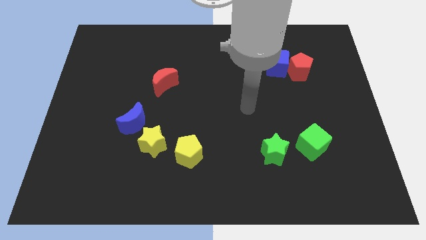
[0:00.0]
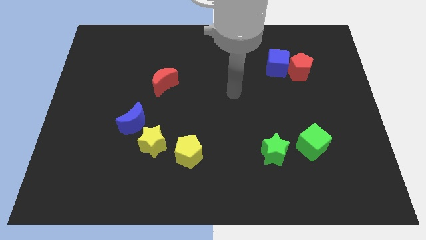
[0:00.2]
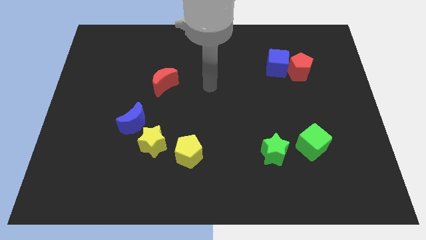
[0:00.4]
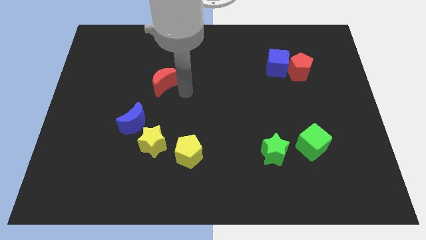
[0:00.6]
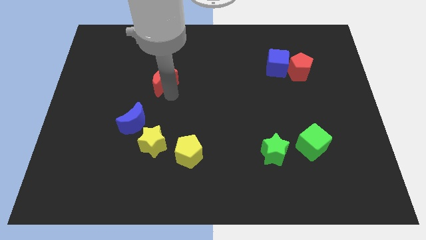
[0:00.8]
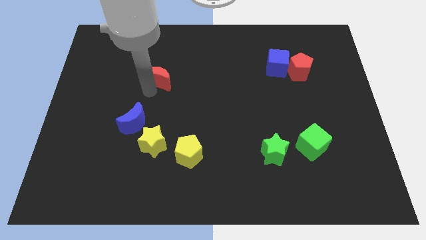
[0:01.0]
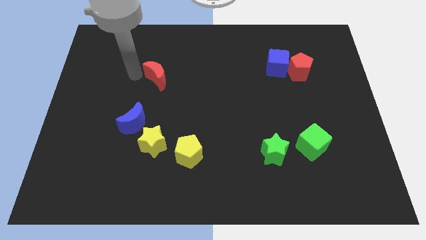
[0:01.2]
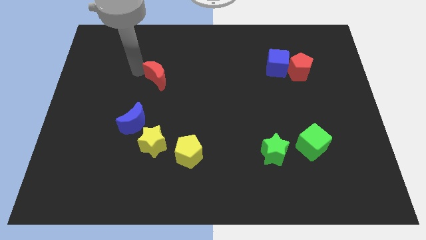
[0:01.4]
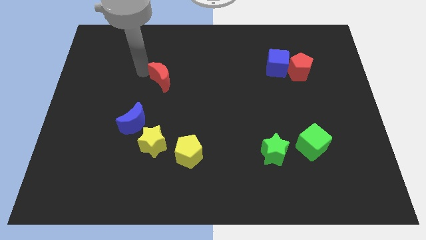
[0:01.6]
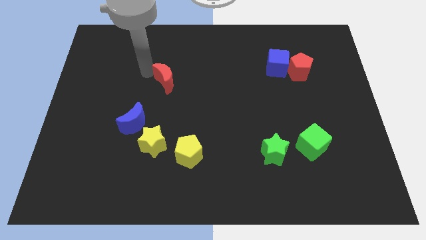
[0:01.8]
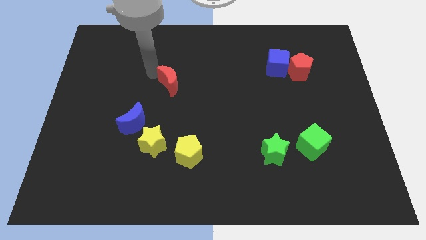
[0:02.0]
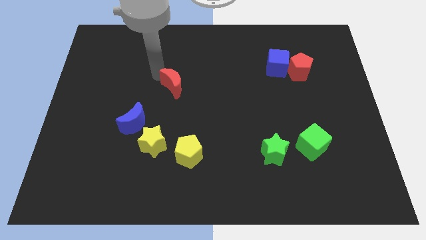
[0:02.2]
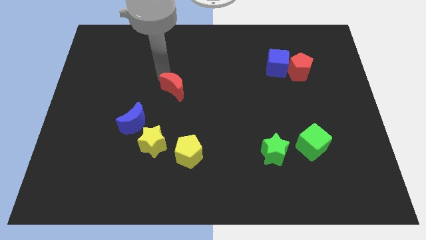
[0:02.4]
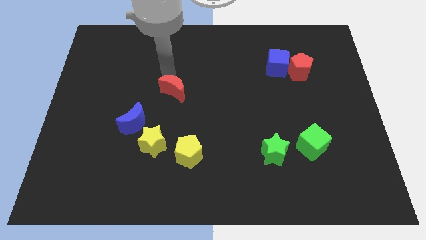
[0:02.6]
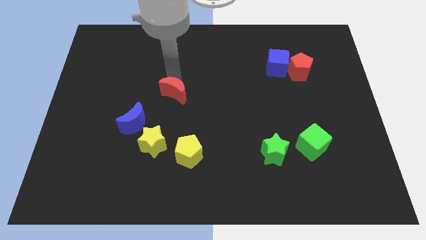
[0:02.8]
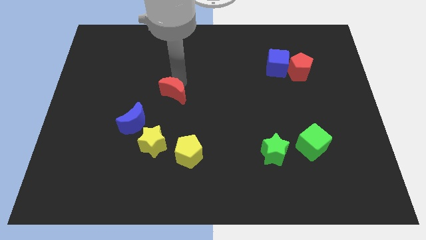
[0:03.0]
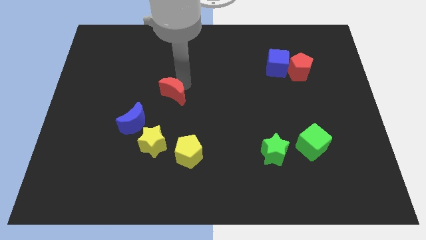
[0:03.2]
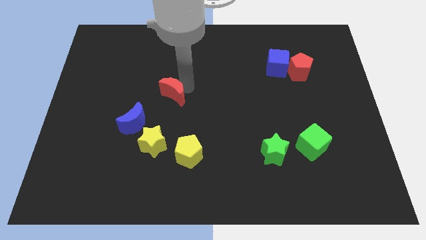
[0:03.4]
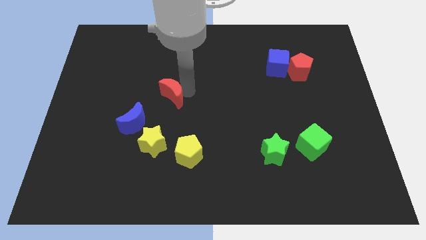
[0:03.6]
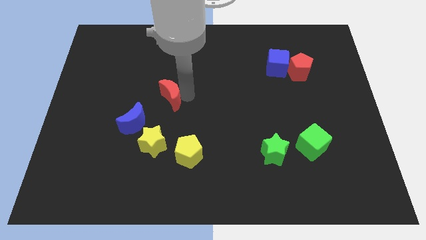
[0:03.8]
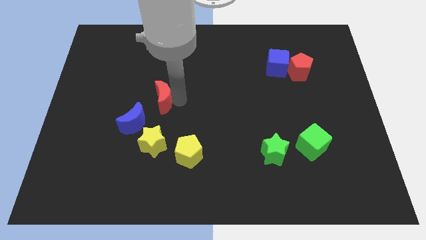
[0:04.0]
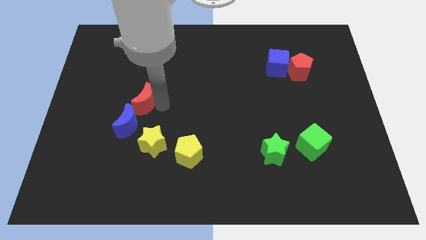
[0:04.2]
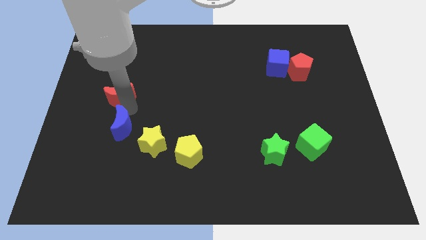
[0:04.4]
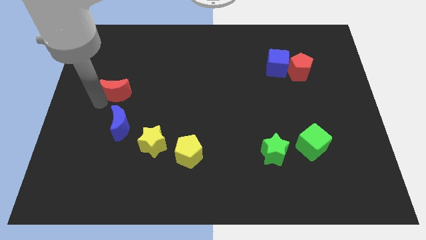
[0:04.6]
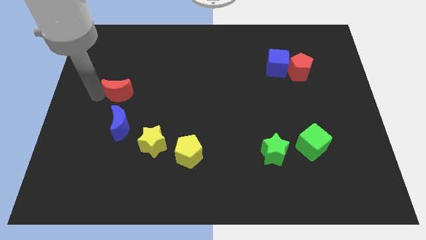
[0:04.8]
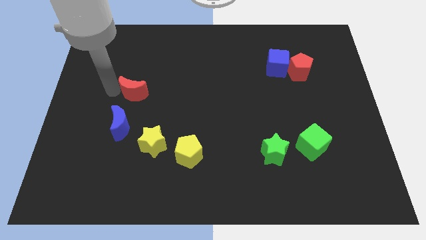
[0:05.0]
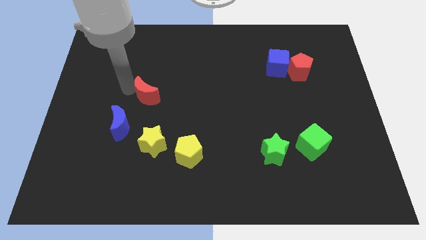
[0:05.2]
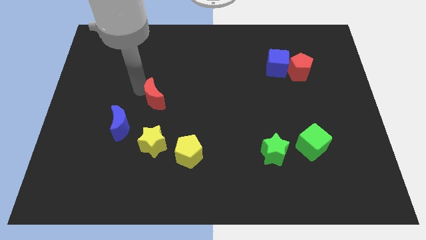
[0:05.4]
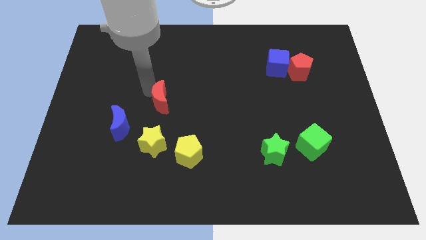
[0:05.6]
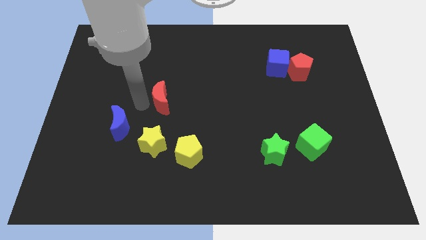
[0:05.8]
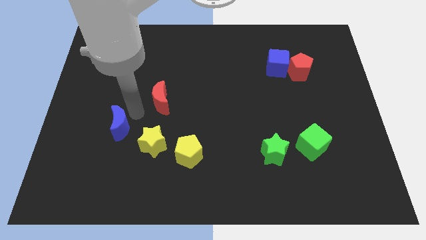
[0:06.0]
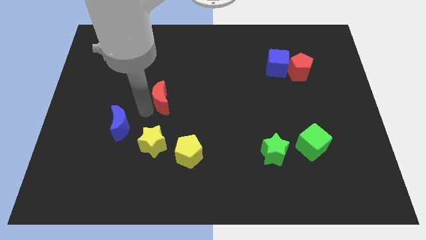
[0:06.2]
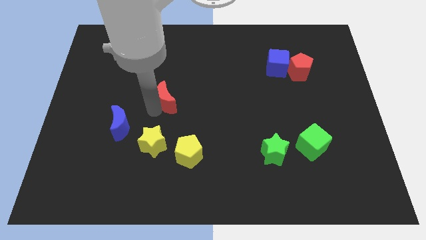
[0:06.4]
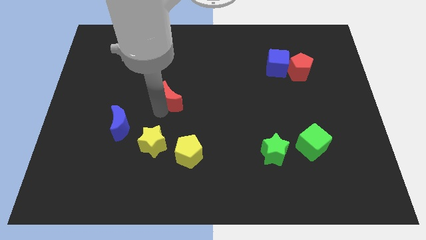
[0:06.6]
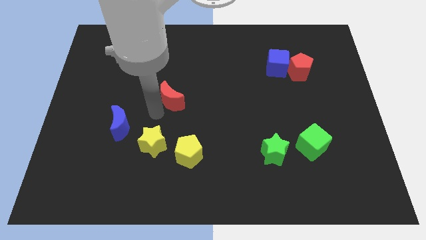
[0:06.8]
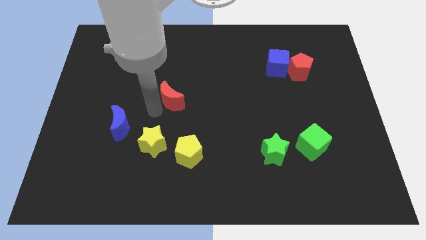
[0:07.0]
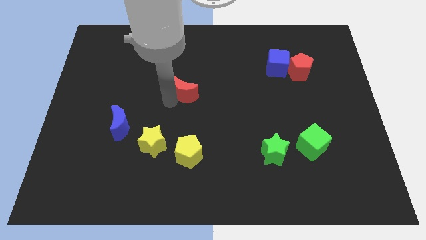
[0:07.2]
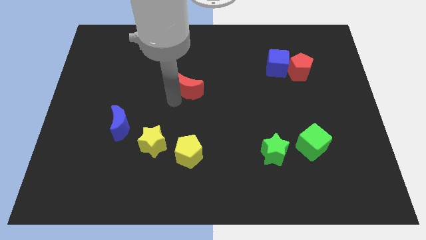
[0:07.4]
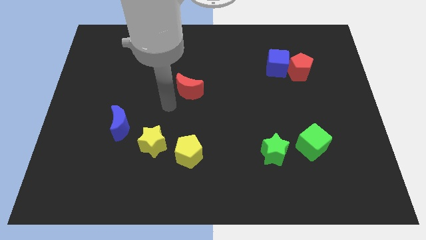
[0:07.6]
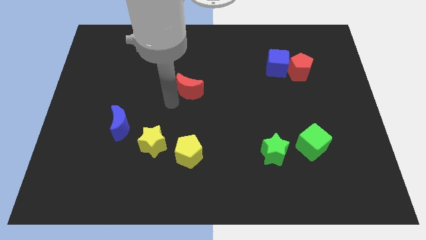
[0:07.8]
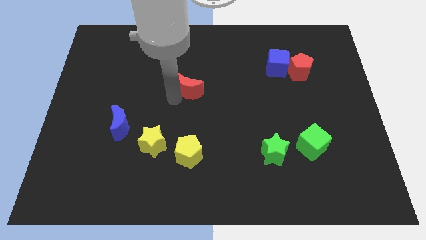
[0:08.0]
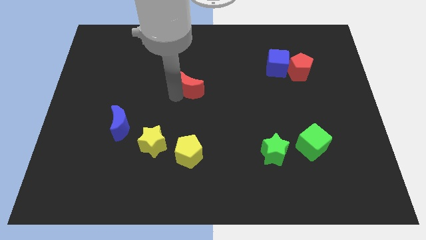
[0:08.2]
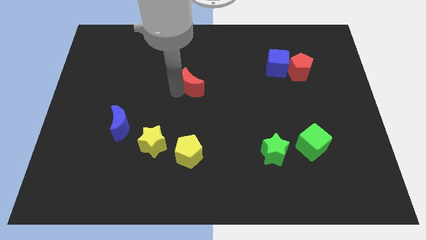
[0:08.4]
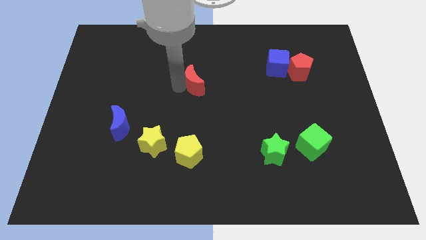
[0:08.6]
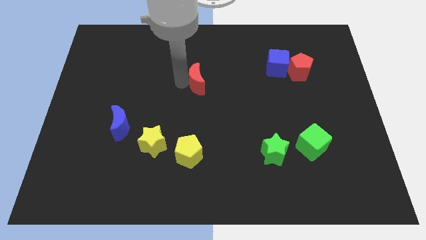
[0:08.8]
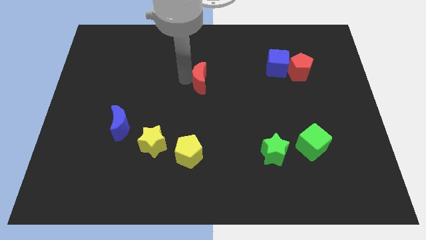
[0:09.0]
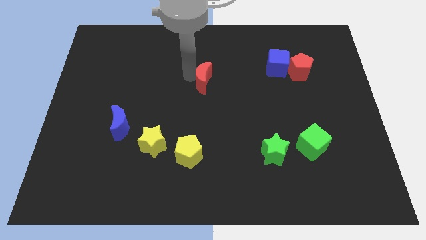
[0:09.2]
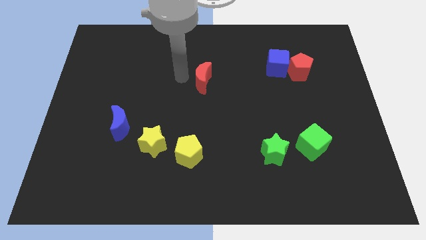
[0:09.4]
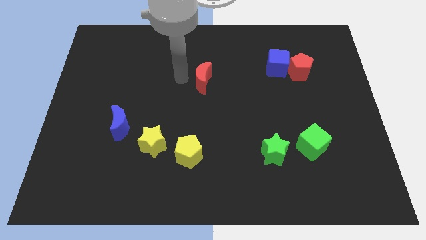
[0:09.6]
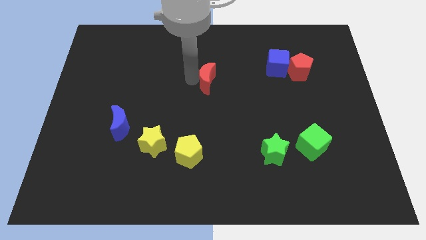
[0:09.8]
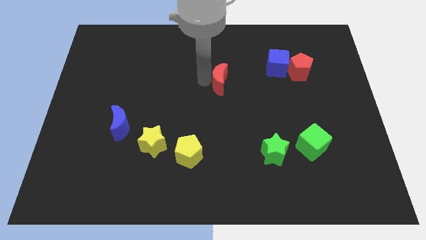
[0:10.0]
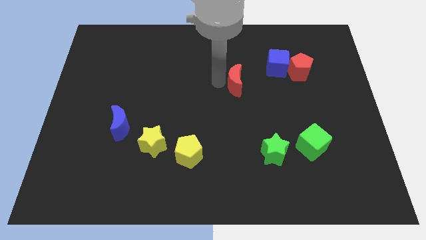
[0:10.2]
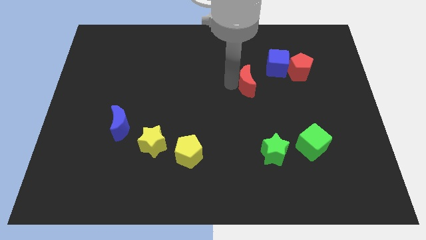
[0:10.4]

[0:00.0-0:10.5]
push the red moon to the right

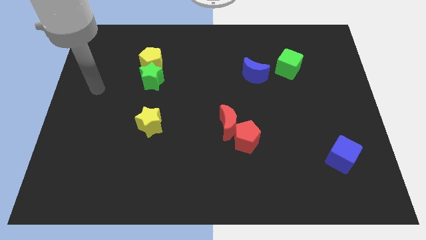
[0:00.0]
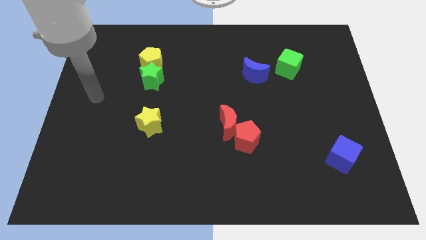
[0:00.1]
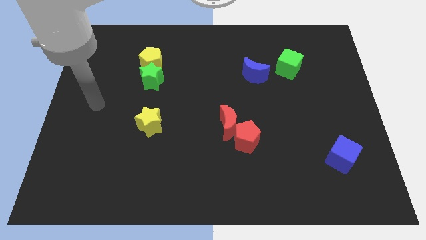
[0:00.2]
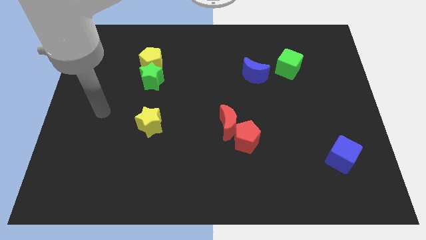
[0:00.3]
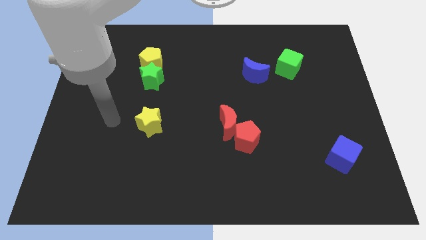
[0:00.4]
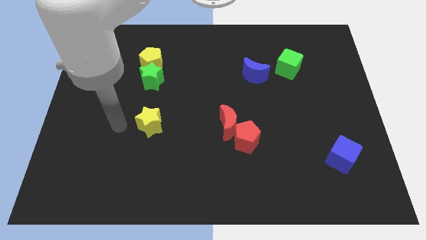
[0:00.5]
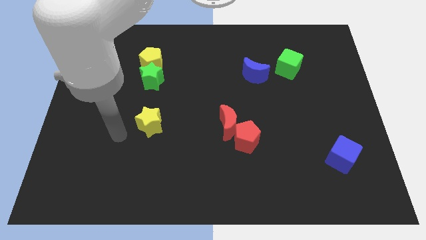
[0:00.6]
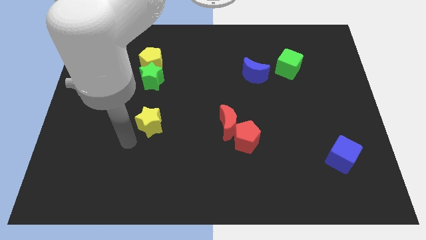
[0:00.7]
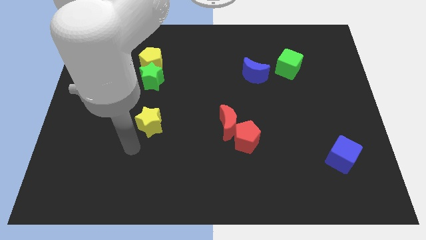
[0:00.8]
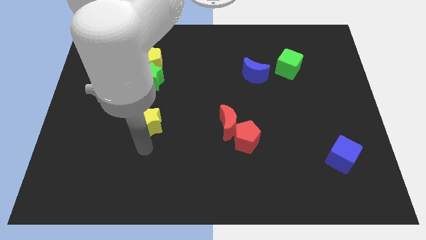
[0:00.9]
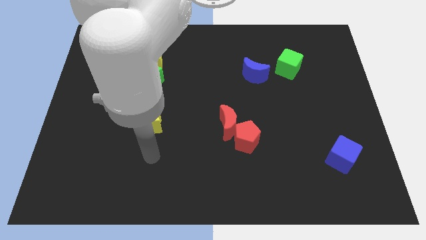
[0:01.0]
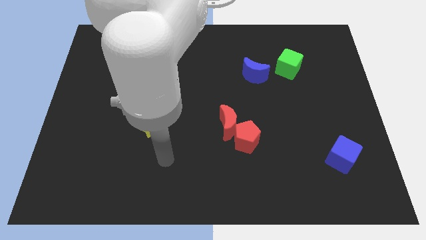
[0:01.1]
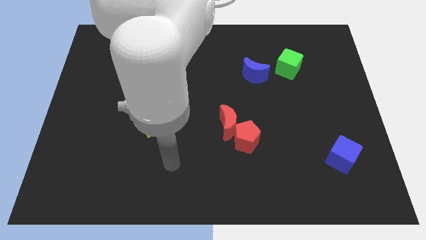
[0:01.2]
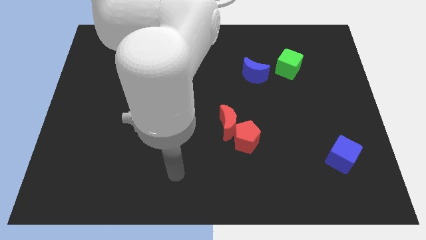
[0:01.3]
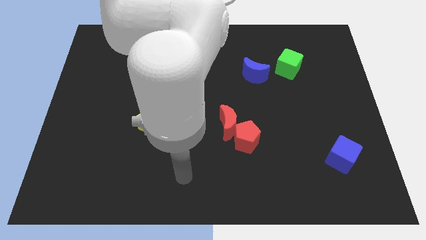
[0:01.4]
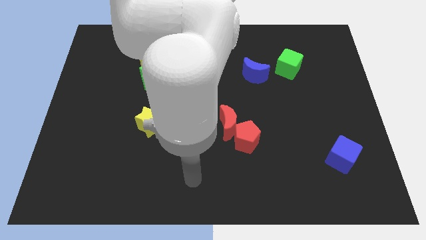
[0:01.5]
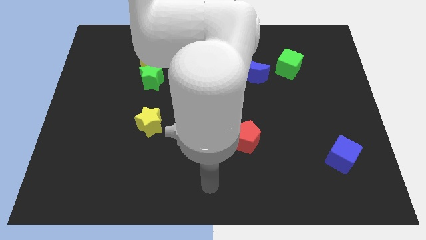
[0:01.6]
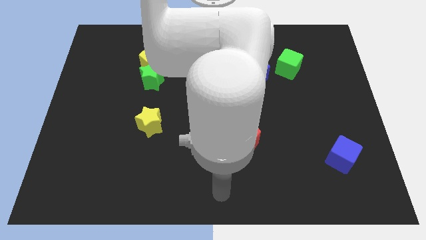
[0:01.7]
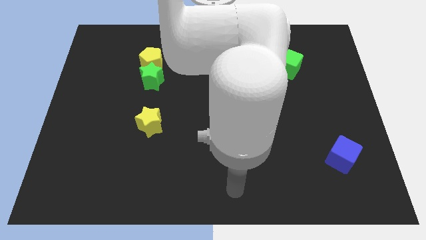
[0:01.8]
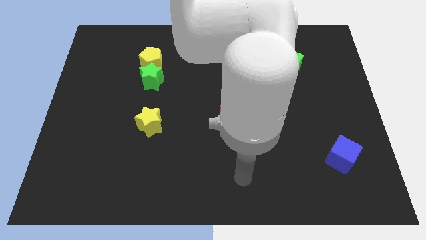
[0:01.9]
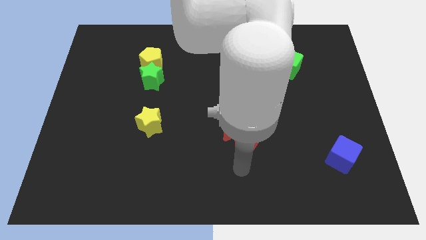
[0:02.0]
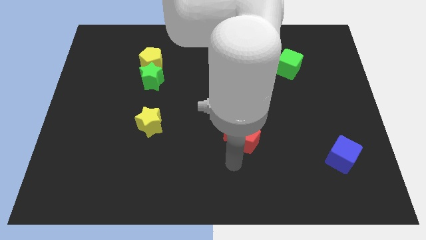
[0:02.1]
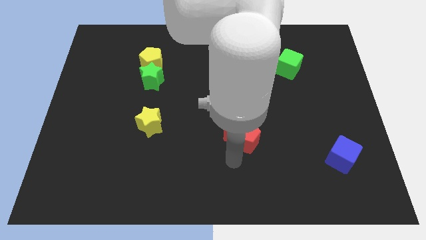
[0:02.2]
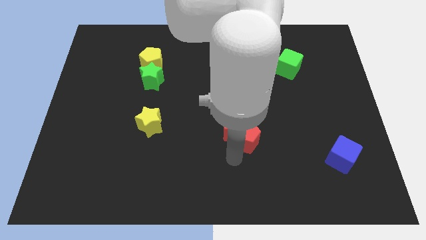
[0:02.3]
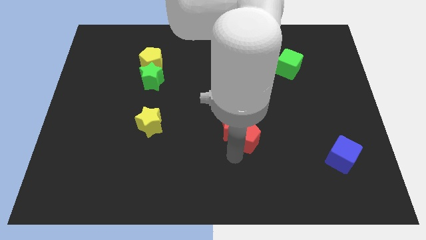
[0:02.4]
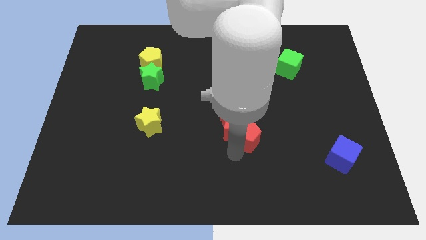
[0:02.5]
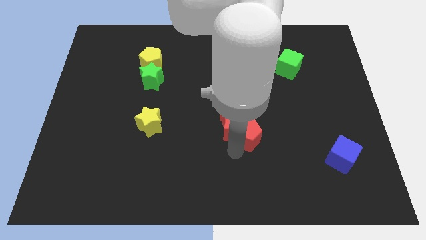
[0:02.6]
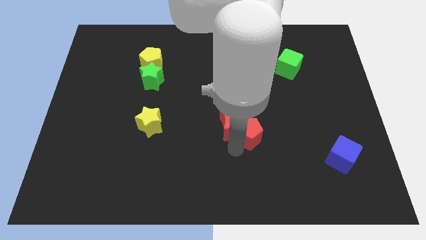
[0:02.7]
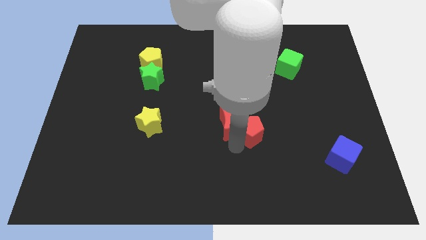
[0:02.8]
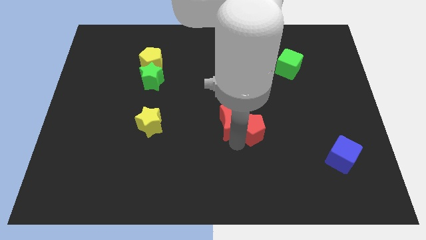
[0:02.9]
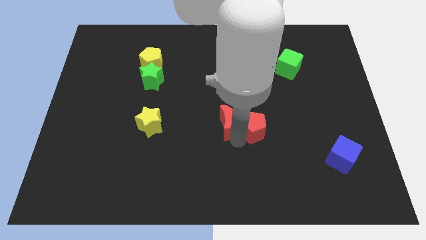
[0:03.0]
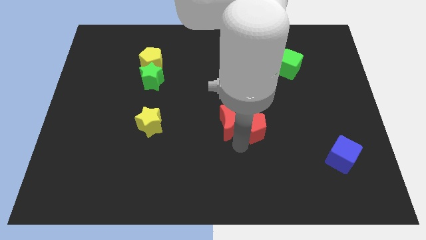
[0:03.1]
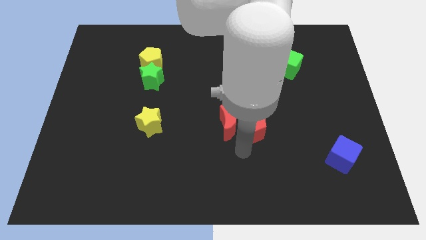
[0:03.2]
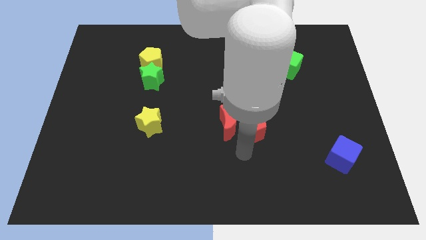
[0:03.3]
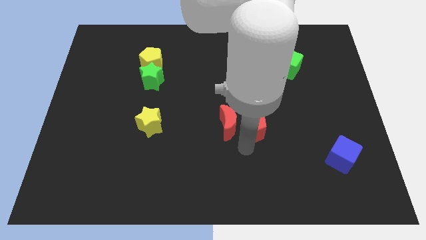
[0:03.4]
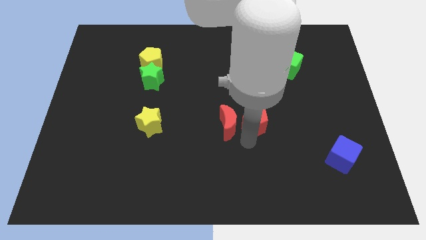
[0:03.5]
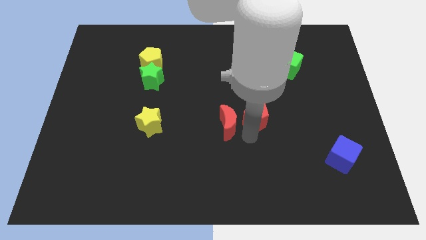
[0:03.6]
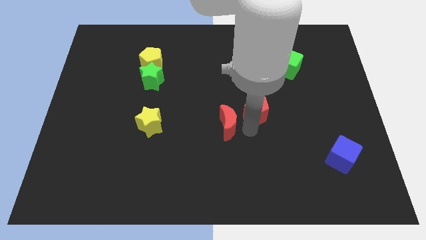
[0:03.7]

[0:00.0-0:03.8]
slightly move the red pentagon up and right diagonally
